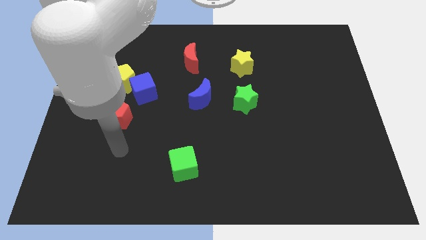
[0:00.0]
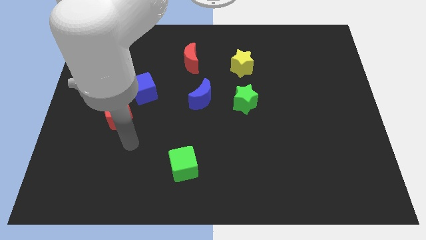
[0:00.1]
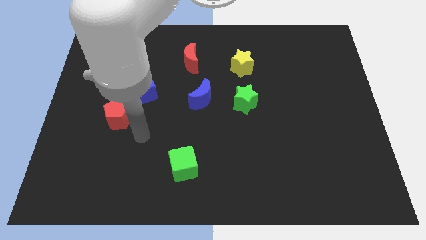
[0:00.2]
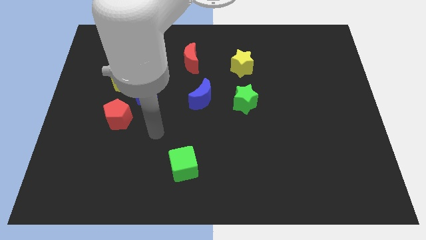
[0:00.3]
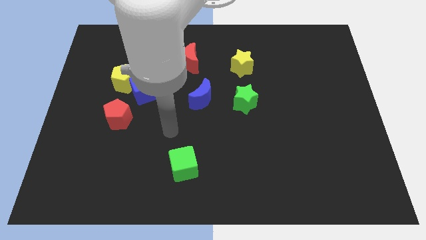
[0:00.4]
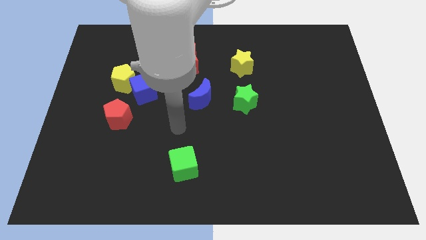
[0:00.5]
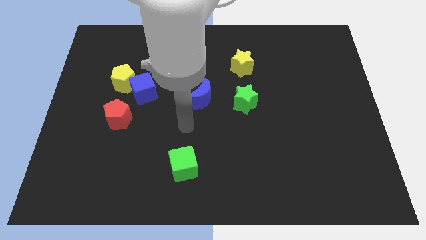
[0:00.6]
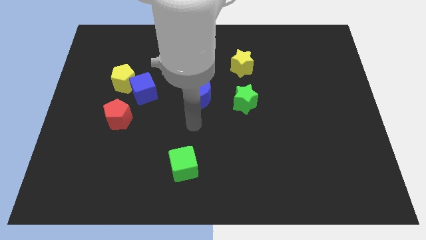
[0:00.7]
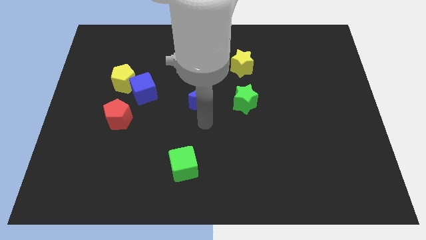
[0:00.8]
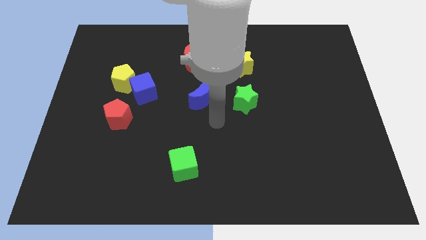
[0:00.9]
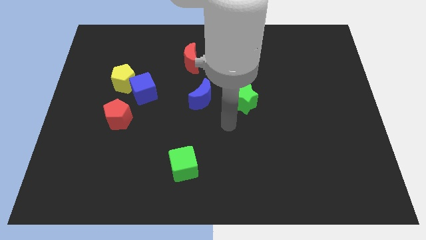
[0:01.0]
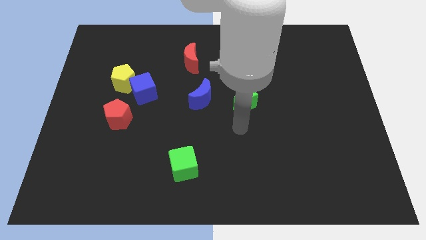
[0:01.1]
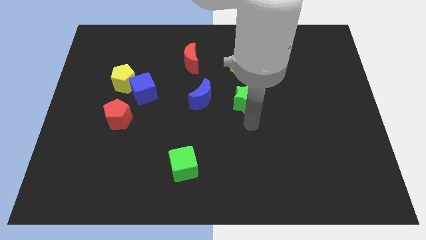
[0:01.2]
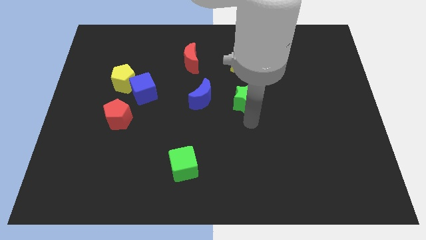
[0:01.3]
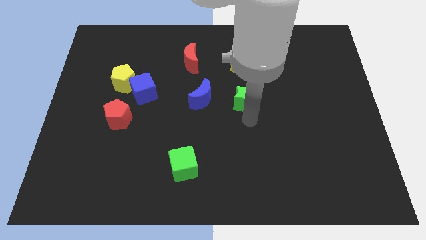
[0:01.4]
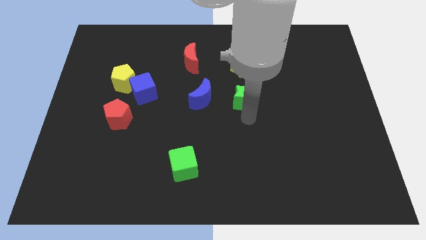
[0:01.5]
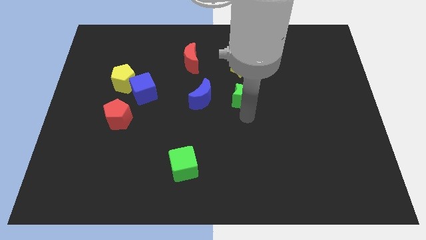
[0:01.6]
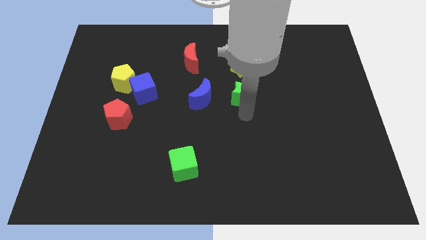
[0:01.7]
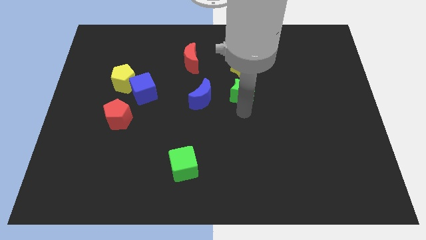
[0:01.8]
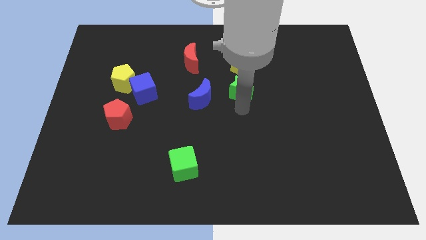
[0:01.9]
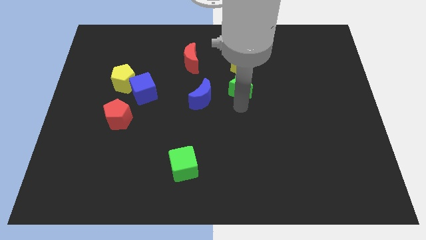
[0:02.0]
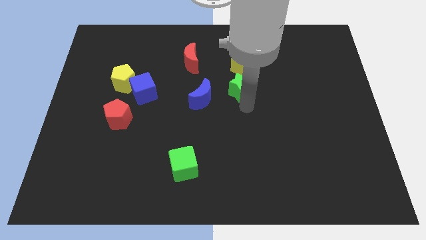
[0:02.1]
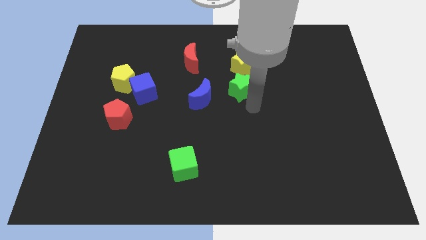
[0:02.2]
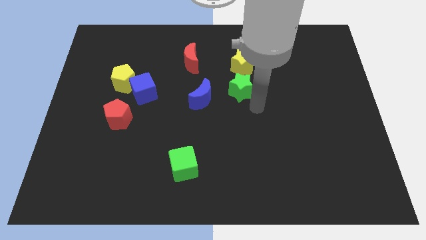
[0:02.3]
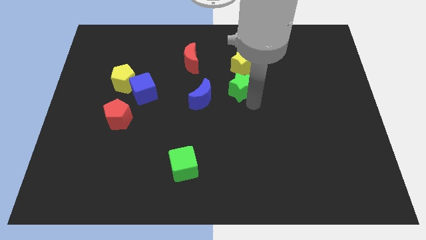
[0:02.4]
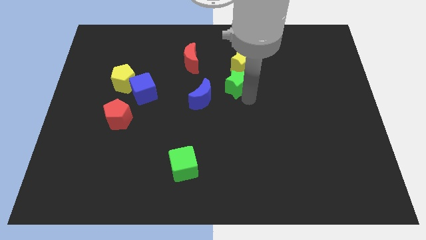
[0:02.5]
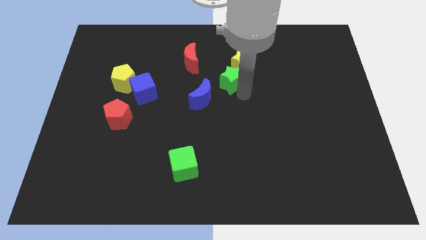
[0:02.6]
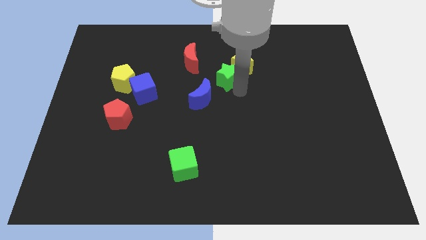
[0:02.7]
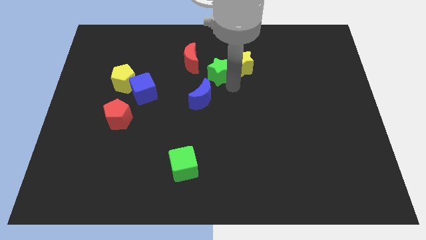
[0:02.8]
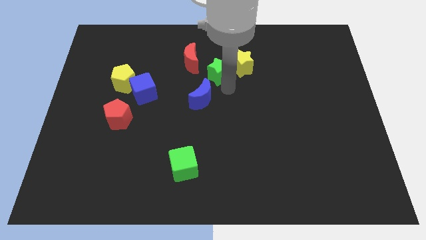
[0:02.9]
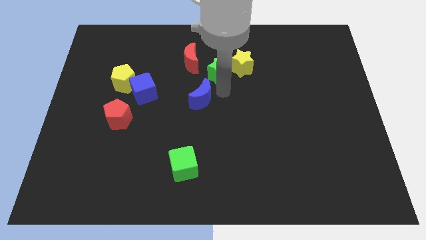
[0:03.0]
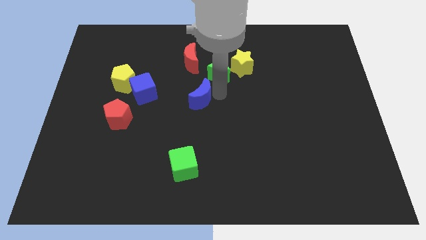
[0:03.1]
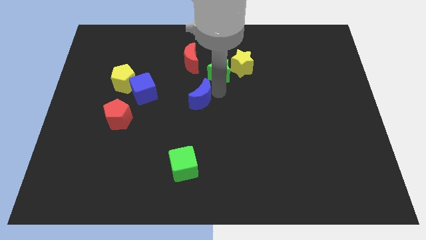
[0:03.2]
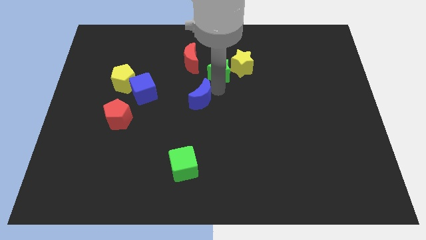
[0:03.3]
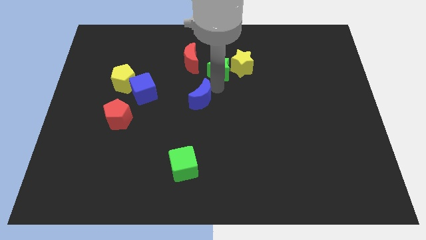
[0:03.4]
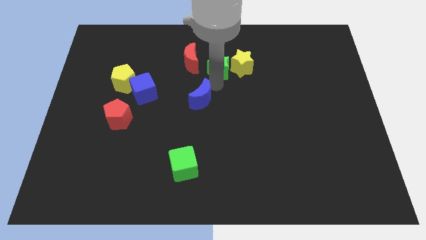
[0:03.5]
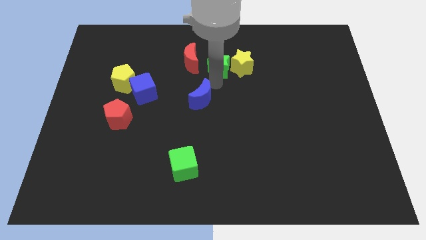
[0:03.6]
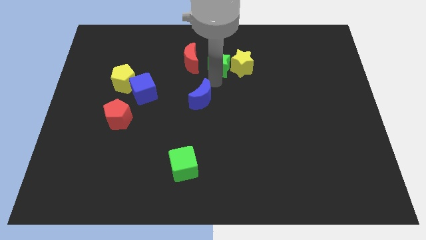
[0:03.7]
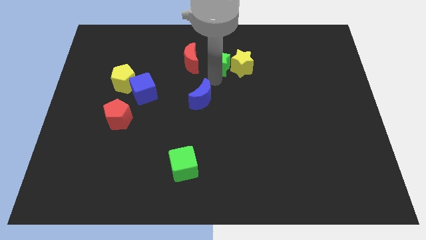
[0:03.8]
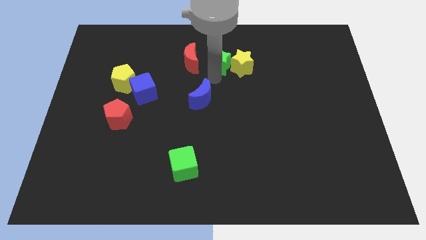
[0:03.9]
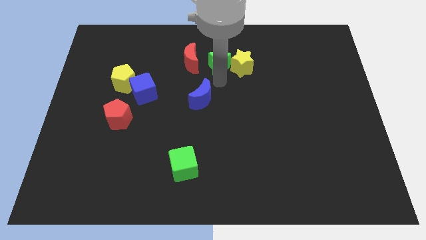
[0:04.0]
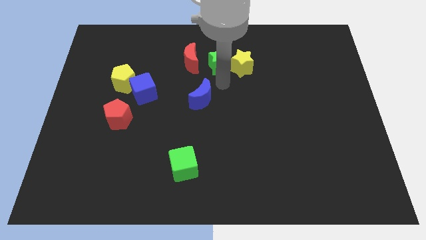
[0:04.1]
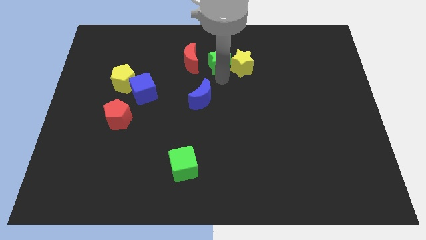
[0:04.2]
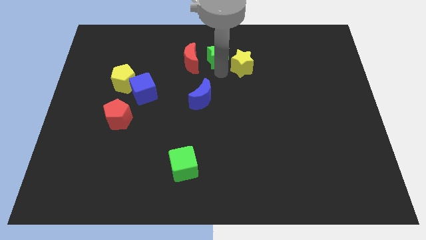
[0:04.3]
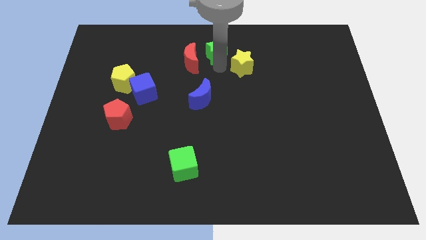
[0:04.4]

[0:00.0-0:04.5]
slide the green star to the top side

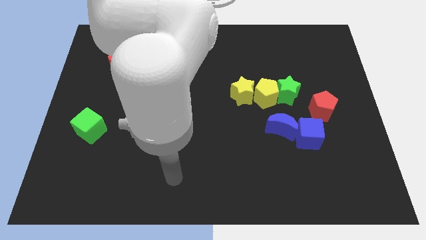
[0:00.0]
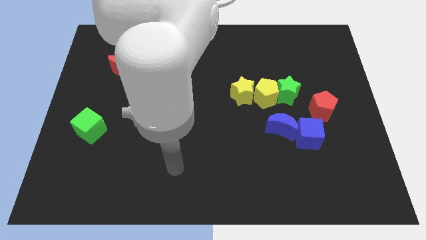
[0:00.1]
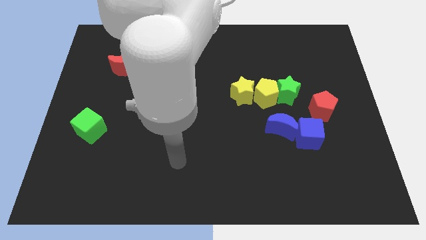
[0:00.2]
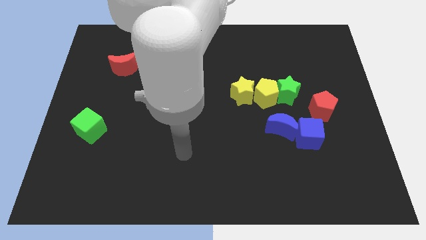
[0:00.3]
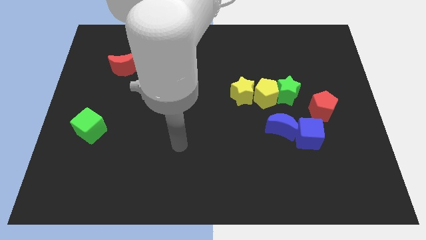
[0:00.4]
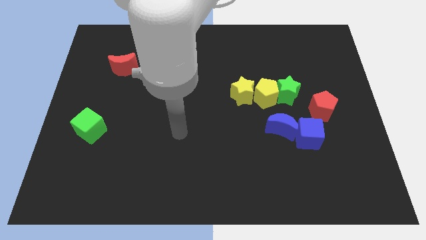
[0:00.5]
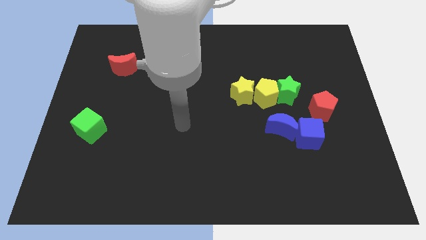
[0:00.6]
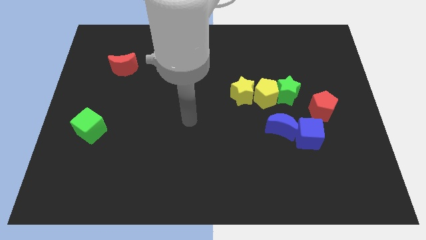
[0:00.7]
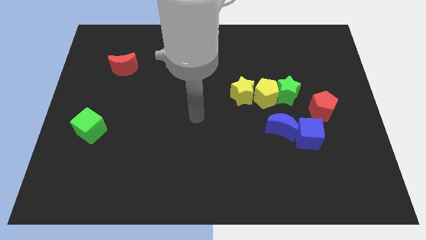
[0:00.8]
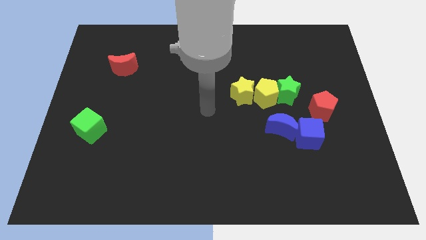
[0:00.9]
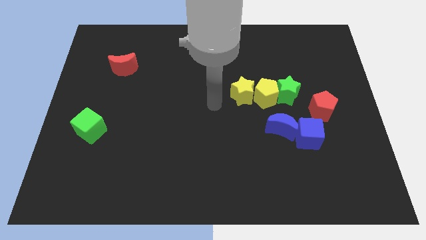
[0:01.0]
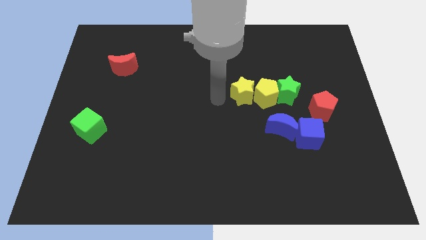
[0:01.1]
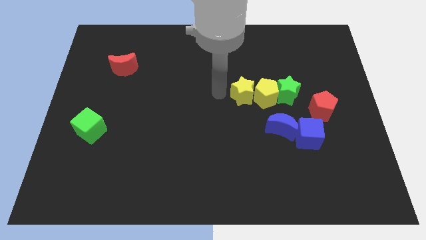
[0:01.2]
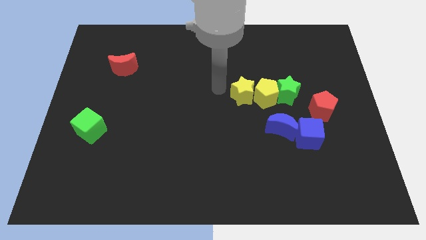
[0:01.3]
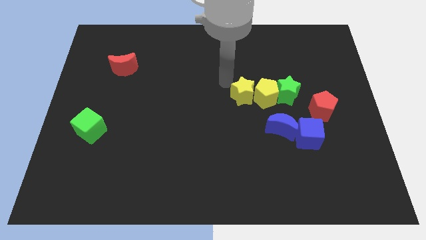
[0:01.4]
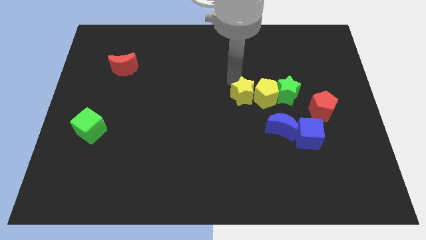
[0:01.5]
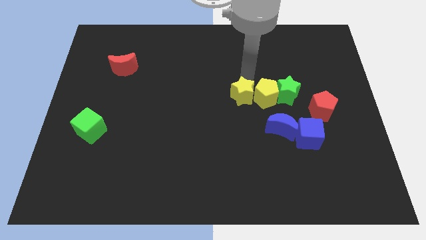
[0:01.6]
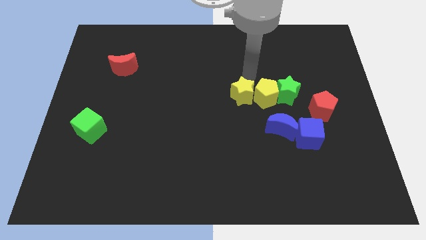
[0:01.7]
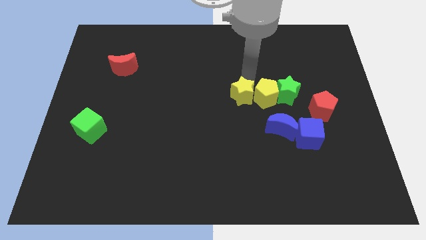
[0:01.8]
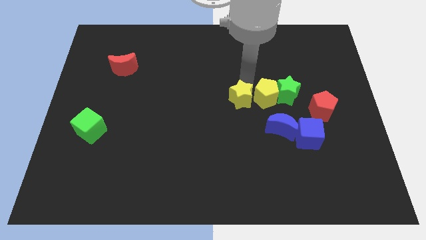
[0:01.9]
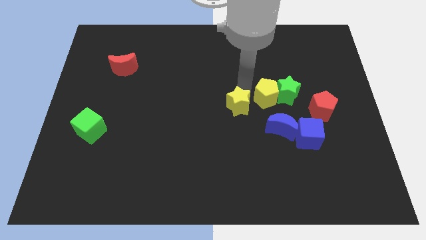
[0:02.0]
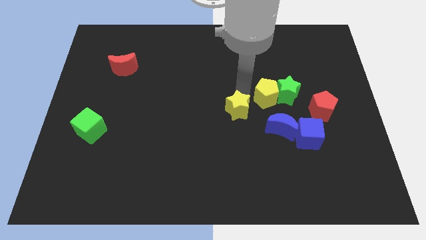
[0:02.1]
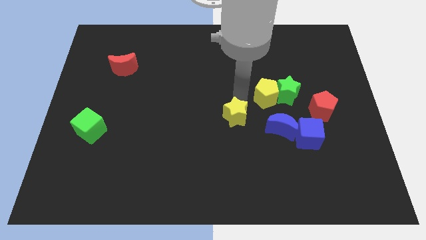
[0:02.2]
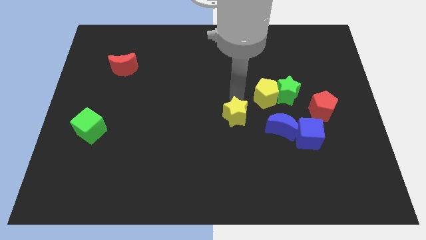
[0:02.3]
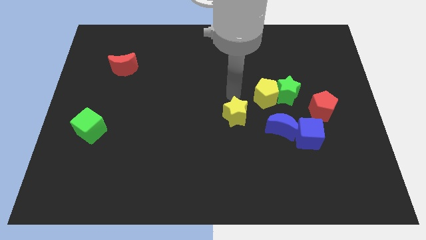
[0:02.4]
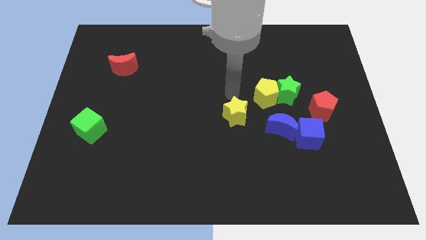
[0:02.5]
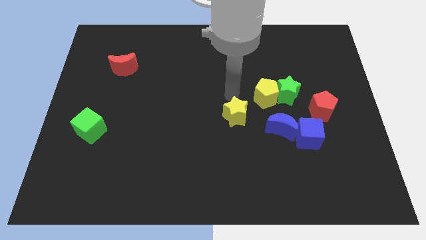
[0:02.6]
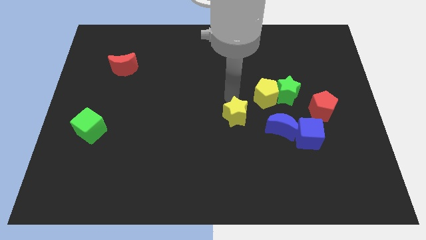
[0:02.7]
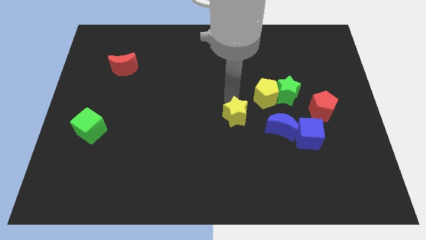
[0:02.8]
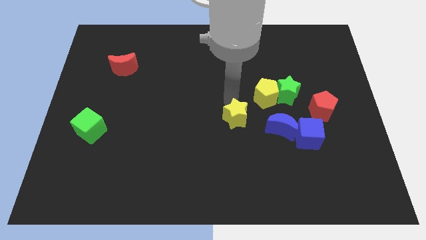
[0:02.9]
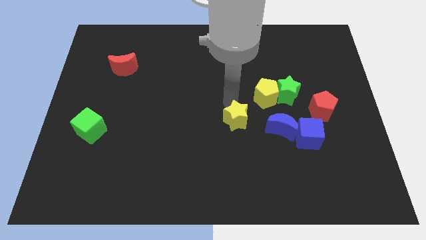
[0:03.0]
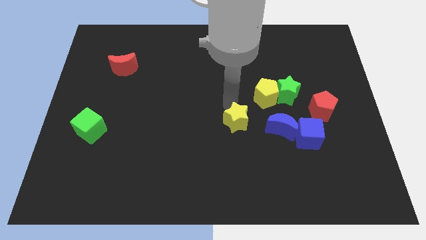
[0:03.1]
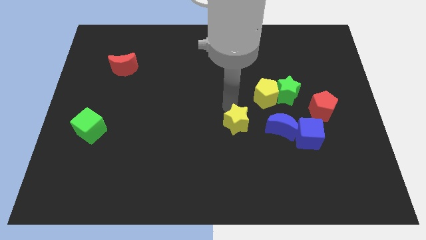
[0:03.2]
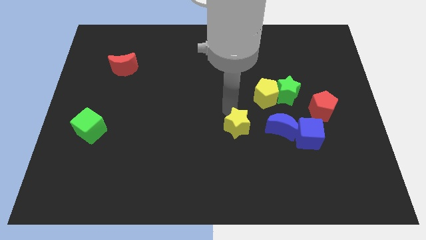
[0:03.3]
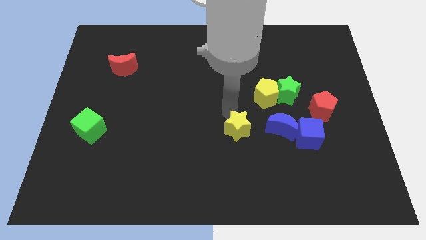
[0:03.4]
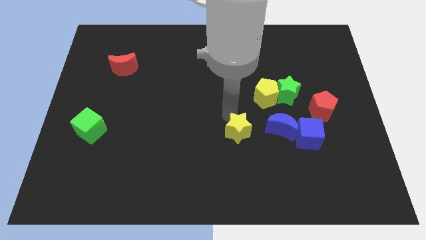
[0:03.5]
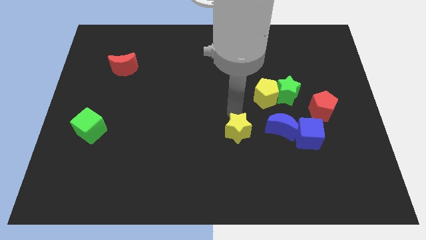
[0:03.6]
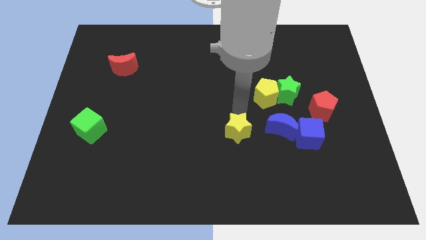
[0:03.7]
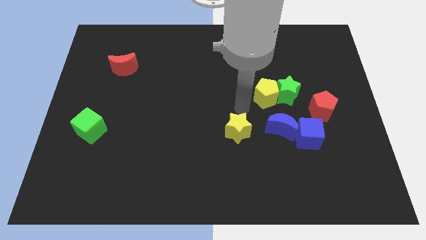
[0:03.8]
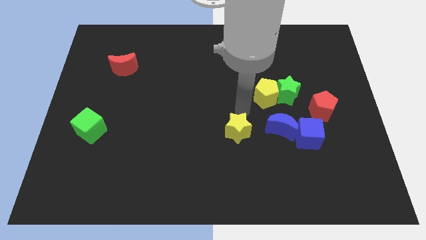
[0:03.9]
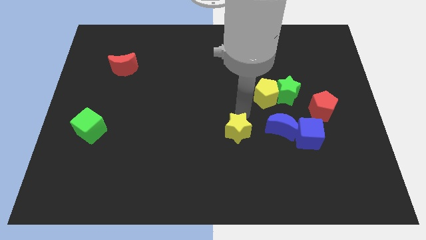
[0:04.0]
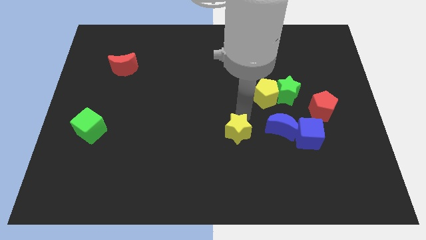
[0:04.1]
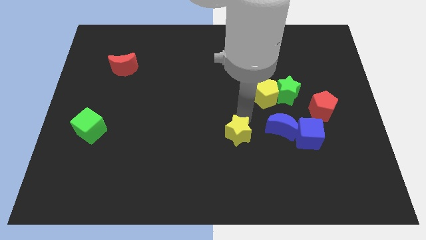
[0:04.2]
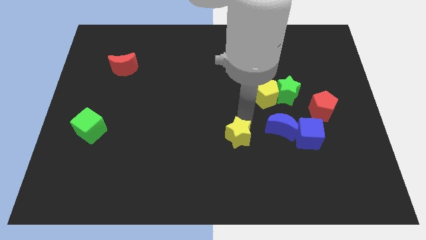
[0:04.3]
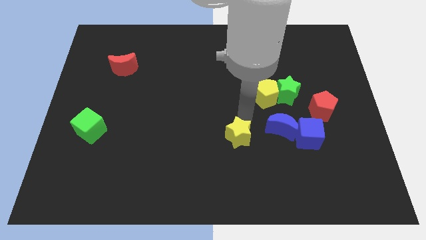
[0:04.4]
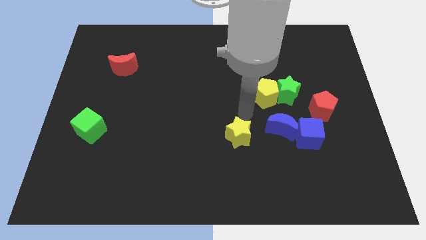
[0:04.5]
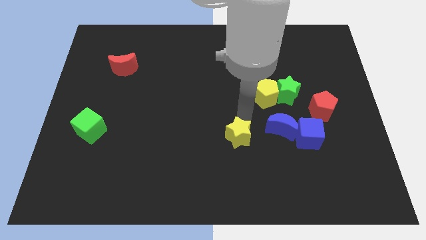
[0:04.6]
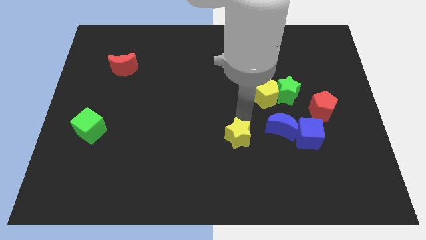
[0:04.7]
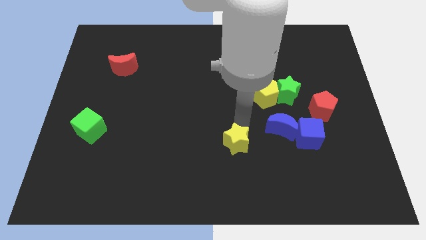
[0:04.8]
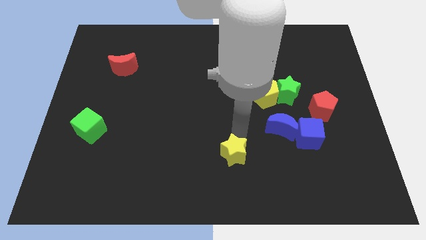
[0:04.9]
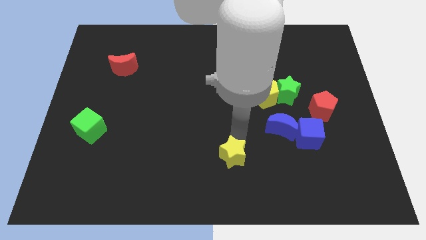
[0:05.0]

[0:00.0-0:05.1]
put the yellow star to the bottom
